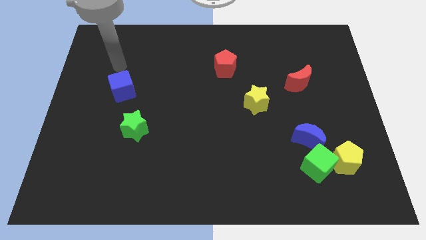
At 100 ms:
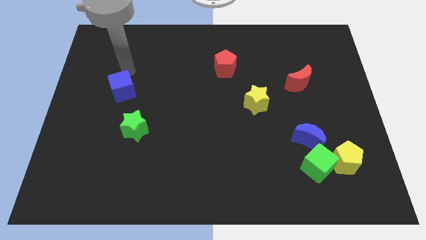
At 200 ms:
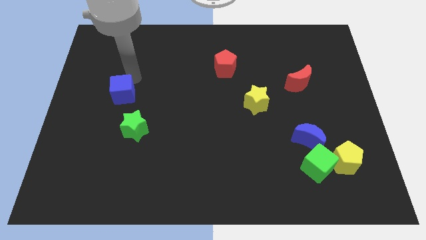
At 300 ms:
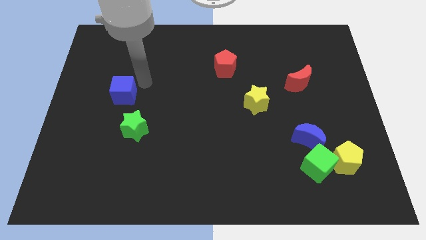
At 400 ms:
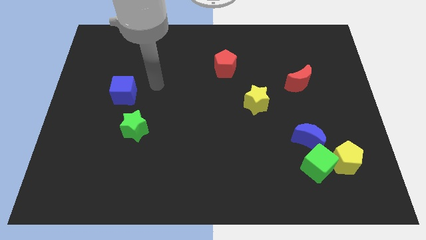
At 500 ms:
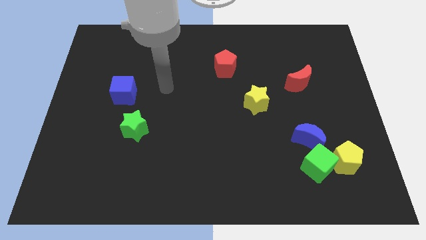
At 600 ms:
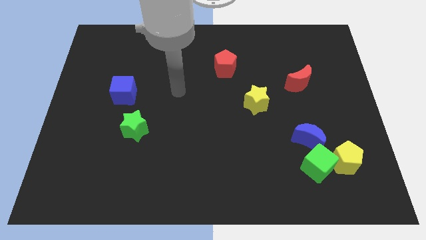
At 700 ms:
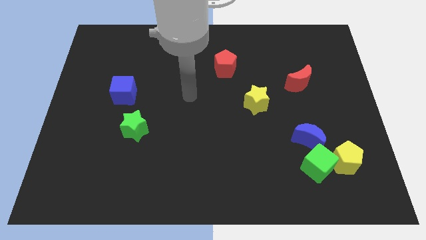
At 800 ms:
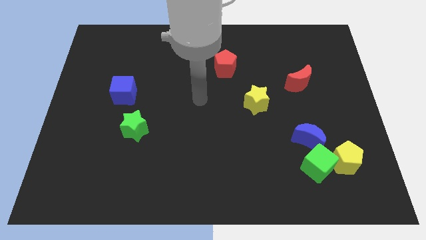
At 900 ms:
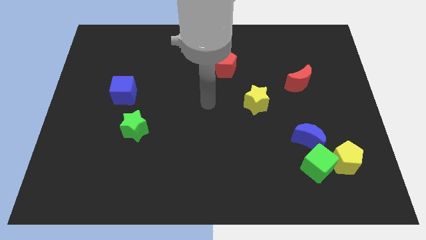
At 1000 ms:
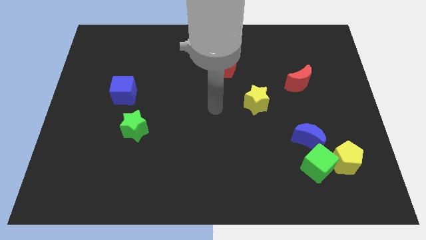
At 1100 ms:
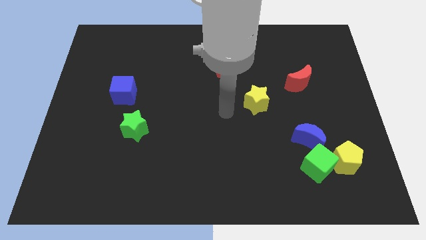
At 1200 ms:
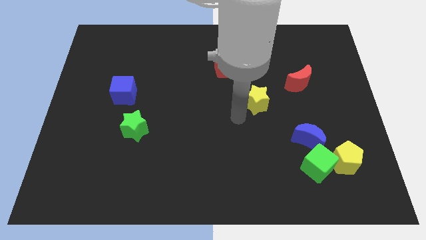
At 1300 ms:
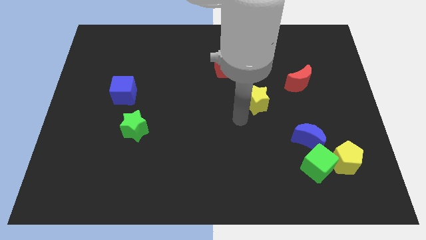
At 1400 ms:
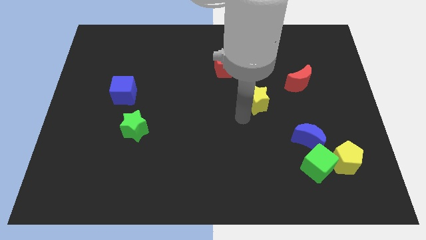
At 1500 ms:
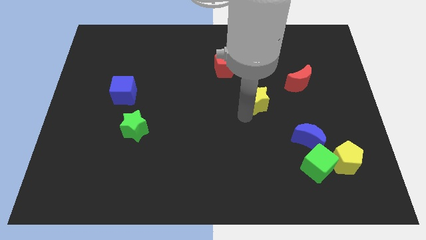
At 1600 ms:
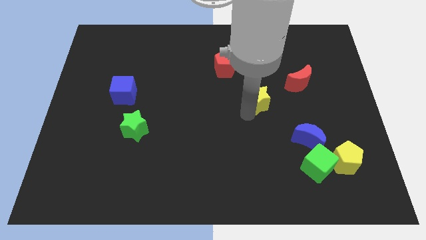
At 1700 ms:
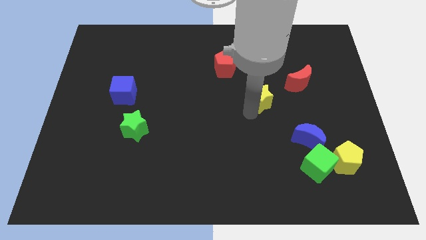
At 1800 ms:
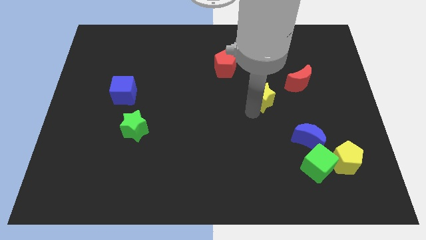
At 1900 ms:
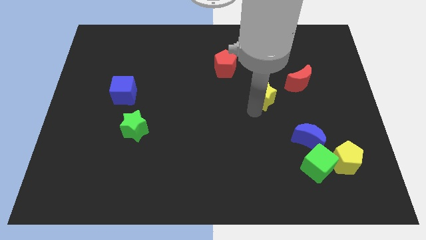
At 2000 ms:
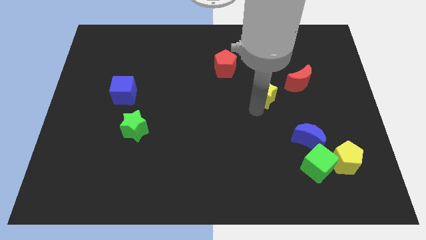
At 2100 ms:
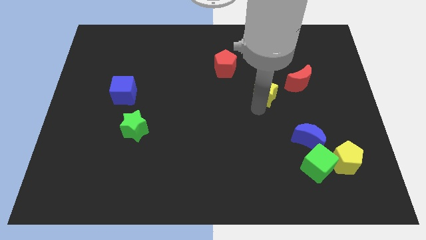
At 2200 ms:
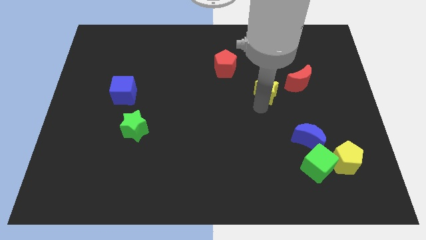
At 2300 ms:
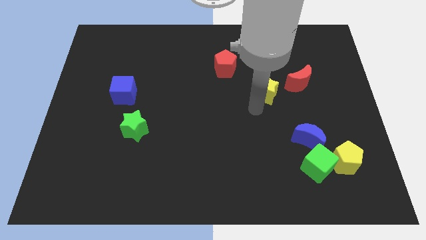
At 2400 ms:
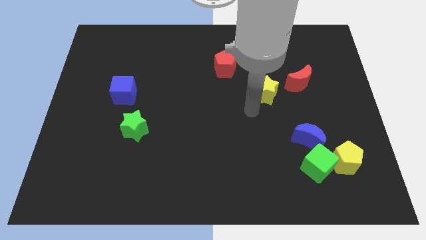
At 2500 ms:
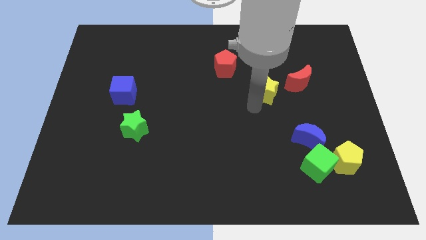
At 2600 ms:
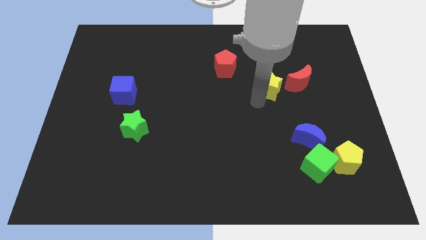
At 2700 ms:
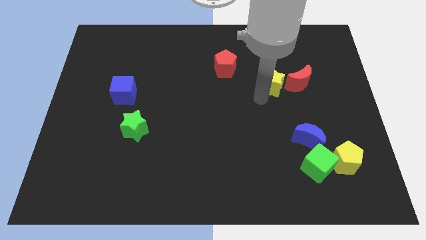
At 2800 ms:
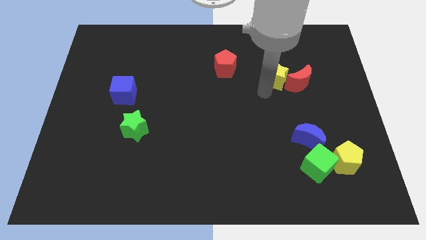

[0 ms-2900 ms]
push the yellow star a little upwards and right diagonally

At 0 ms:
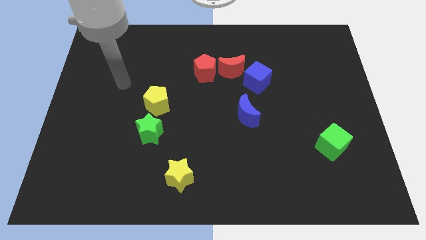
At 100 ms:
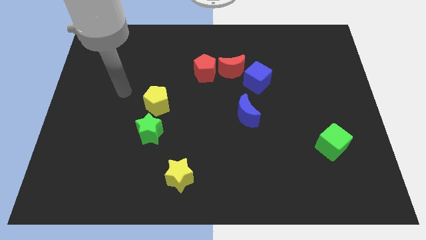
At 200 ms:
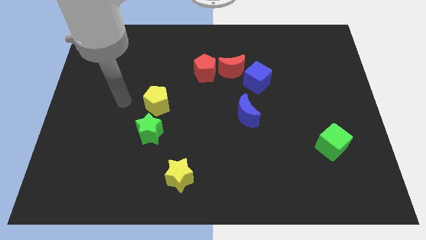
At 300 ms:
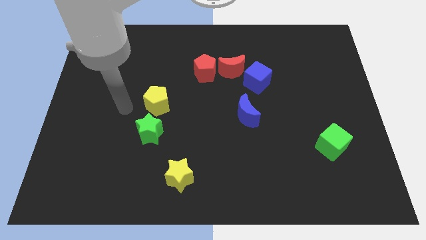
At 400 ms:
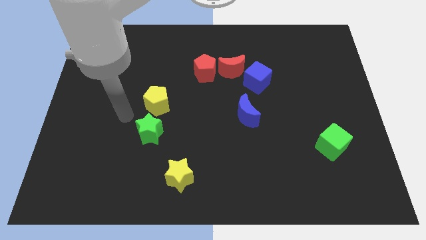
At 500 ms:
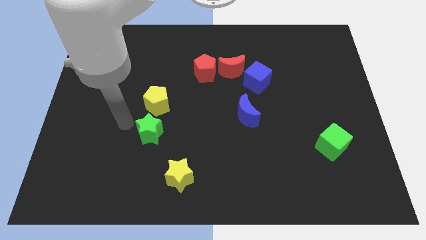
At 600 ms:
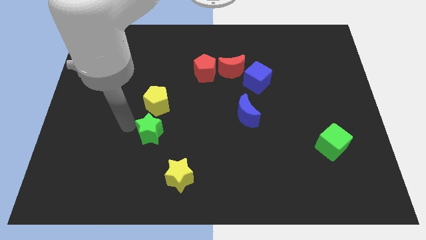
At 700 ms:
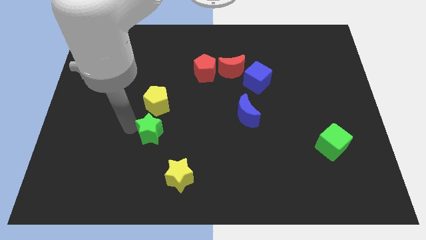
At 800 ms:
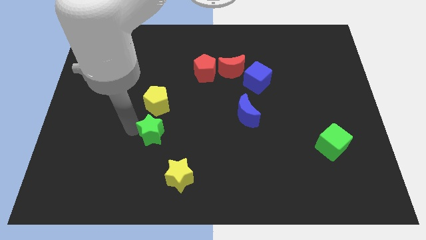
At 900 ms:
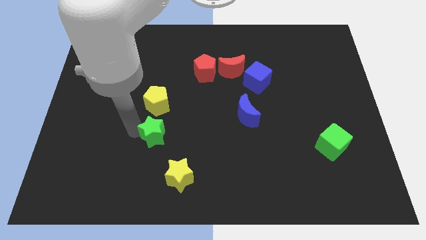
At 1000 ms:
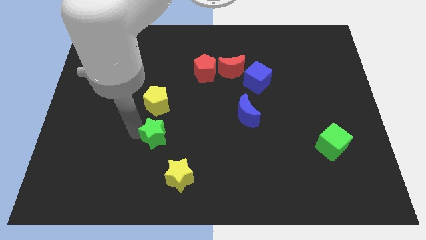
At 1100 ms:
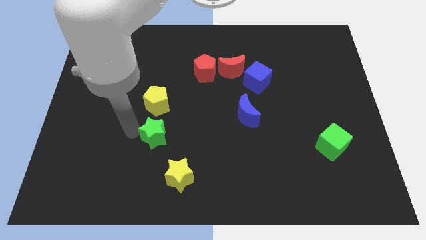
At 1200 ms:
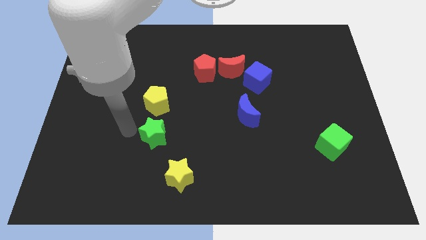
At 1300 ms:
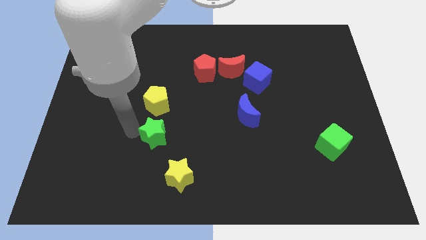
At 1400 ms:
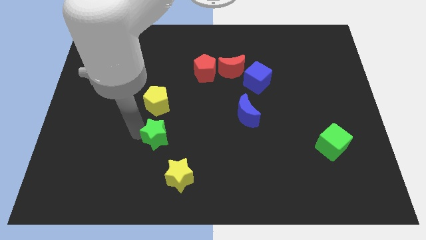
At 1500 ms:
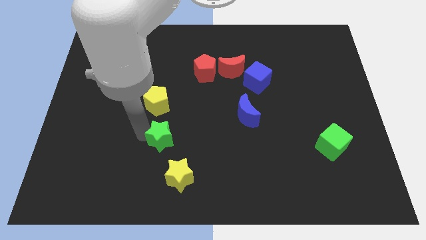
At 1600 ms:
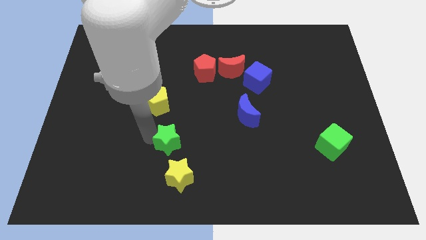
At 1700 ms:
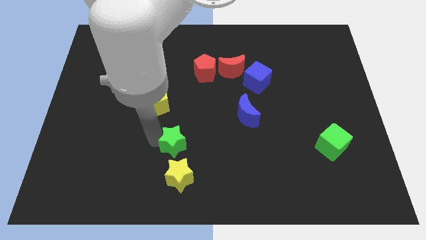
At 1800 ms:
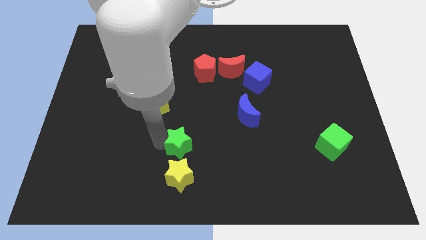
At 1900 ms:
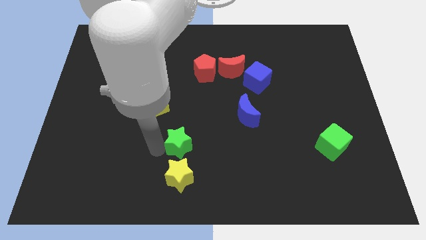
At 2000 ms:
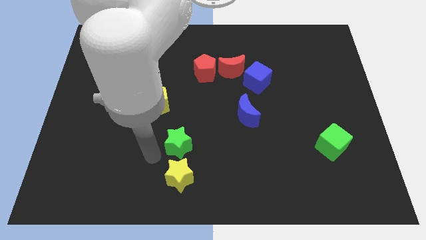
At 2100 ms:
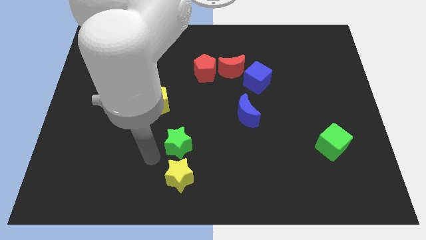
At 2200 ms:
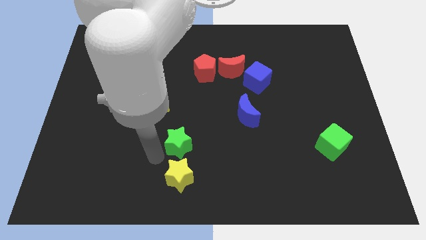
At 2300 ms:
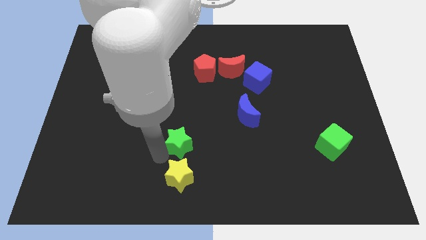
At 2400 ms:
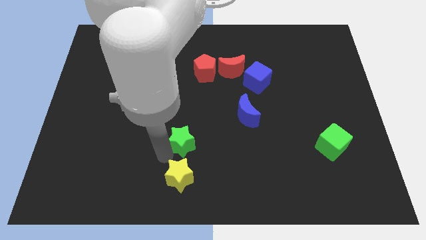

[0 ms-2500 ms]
slightly push the green star to the right

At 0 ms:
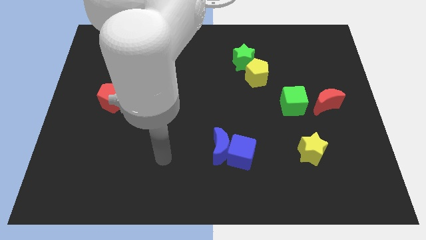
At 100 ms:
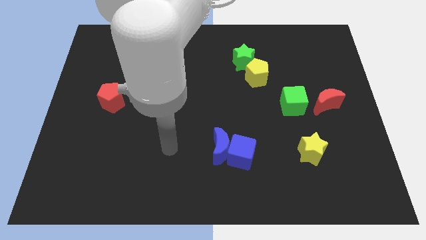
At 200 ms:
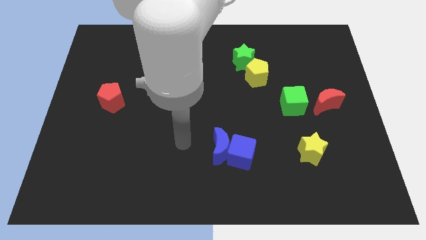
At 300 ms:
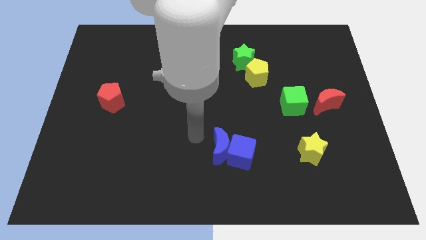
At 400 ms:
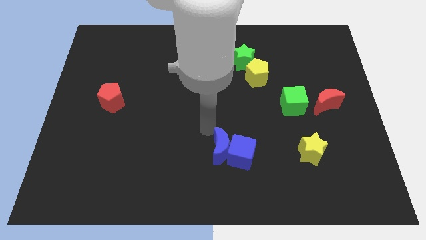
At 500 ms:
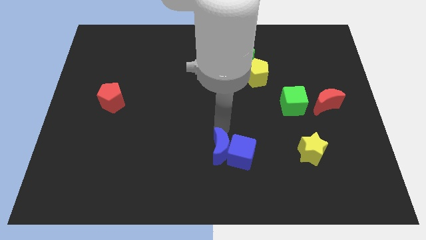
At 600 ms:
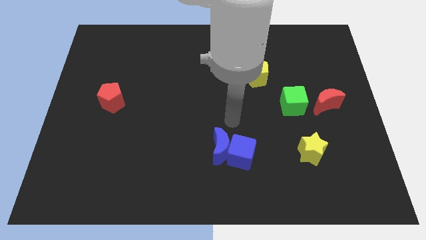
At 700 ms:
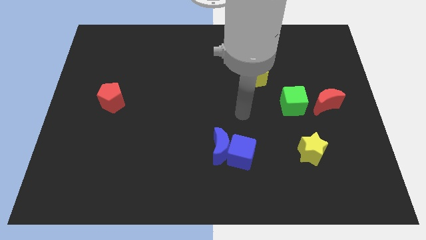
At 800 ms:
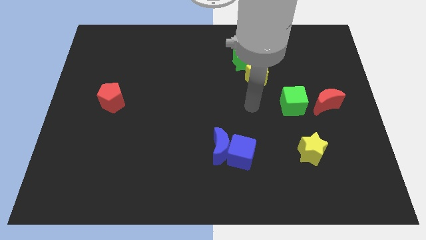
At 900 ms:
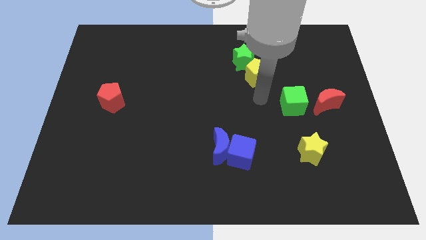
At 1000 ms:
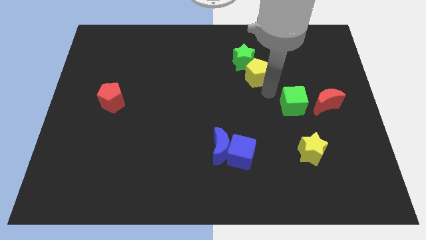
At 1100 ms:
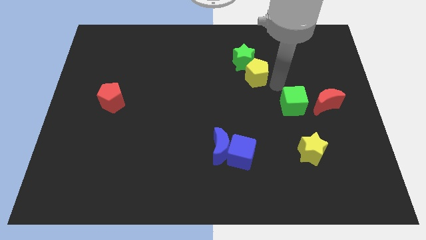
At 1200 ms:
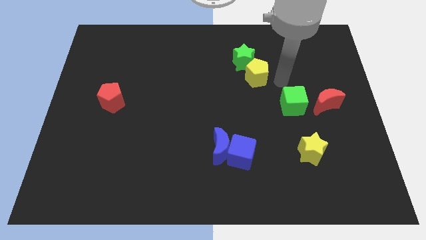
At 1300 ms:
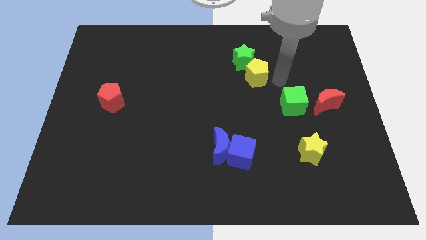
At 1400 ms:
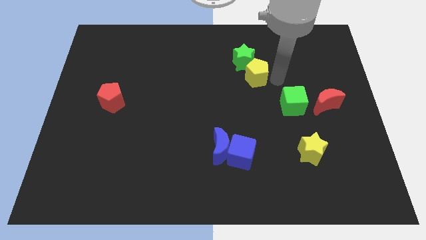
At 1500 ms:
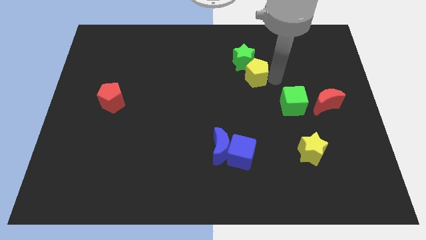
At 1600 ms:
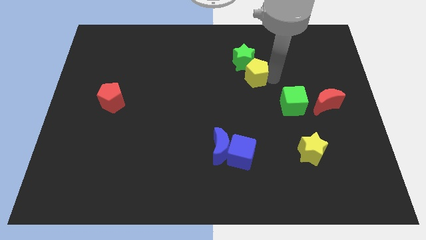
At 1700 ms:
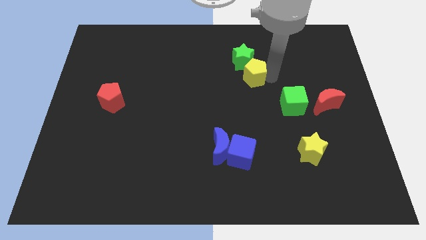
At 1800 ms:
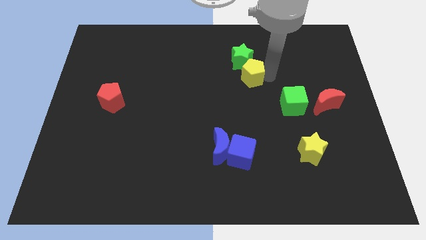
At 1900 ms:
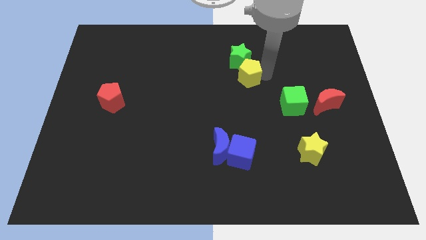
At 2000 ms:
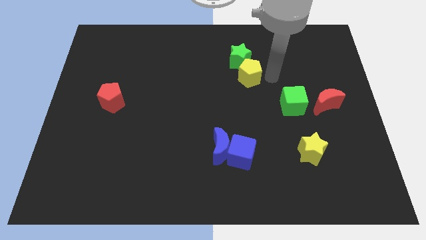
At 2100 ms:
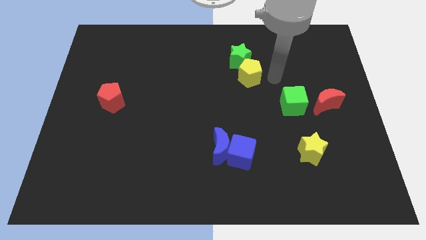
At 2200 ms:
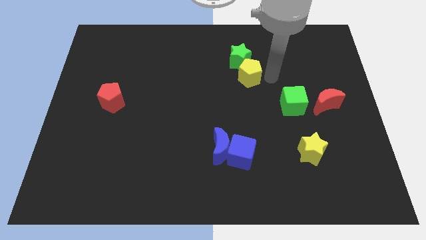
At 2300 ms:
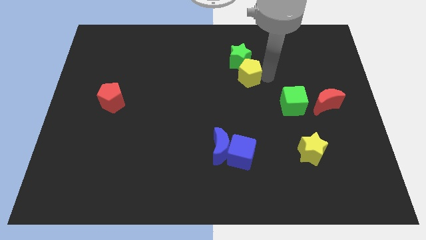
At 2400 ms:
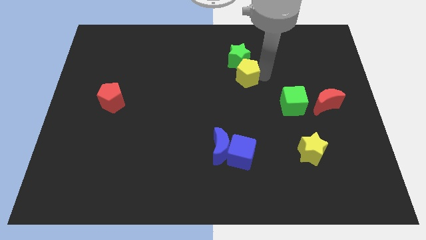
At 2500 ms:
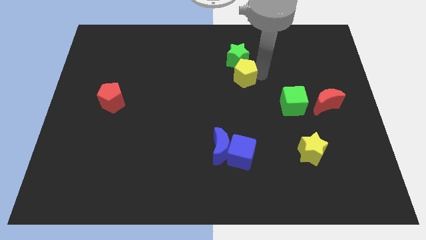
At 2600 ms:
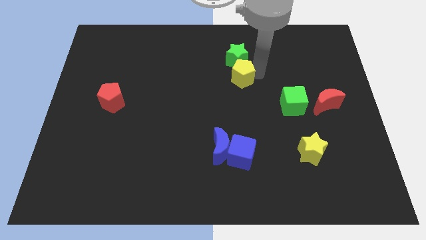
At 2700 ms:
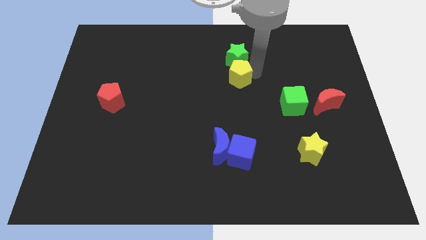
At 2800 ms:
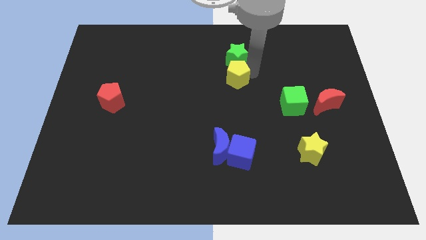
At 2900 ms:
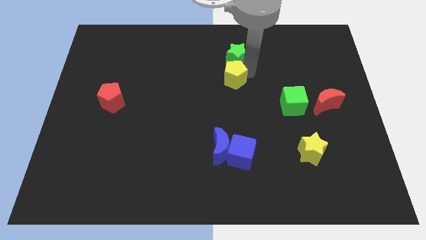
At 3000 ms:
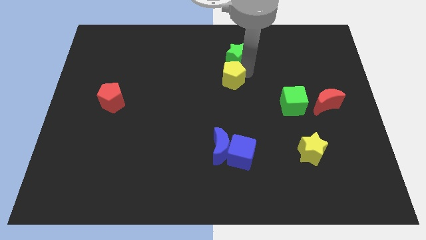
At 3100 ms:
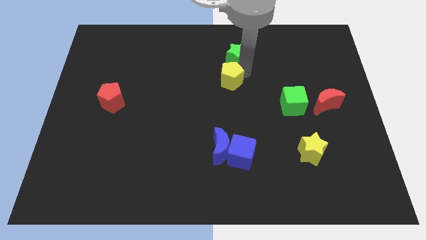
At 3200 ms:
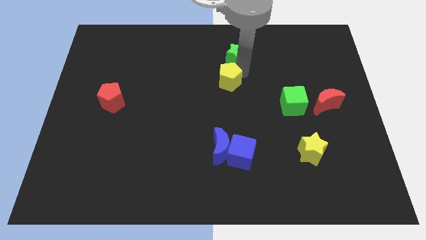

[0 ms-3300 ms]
push the yellow pentagon to the left somewhat
